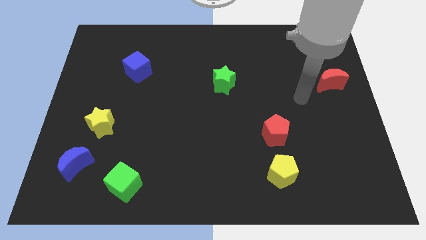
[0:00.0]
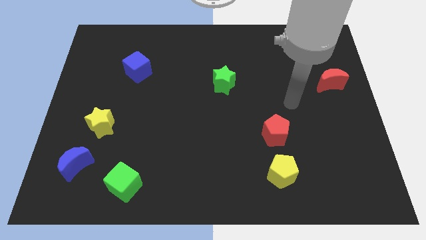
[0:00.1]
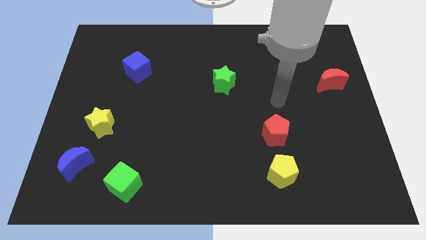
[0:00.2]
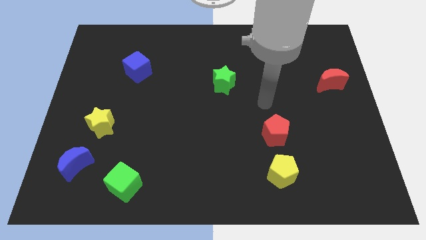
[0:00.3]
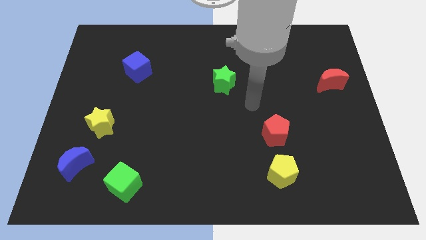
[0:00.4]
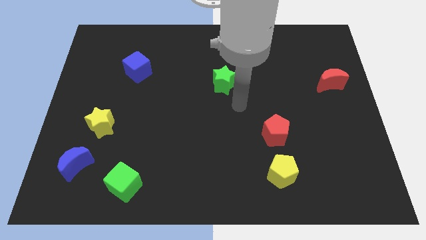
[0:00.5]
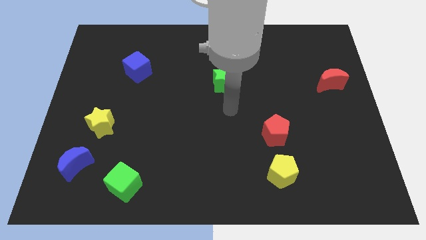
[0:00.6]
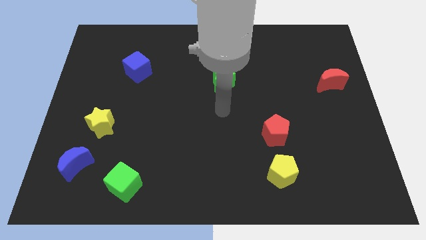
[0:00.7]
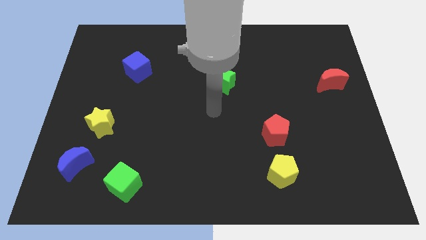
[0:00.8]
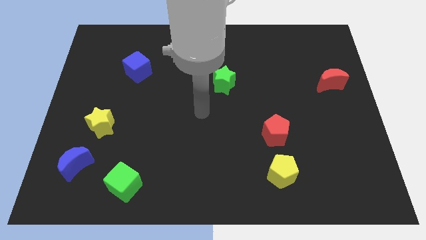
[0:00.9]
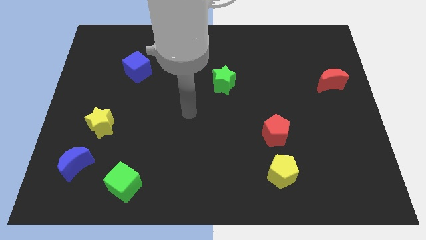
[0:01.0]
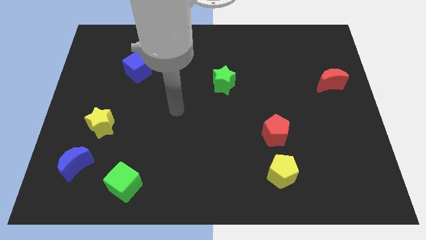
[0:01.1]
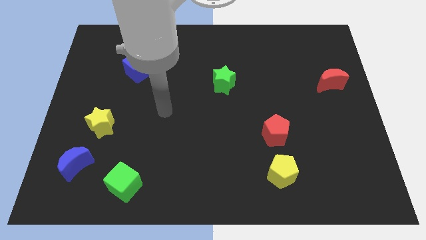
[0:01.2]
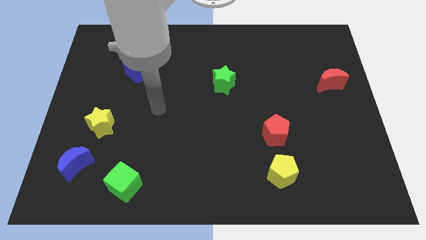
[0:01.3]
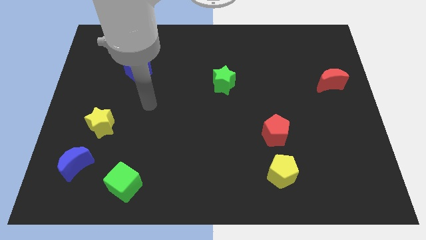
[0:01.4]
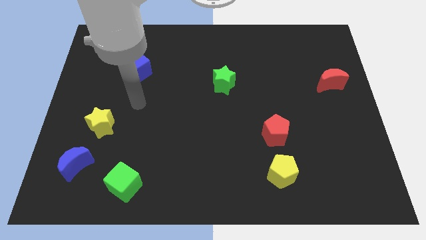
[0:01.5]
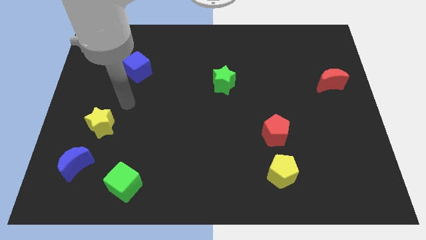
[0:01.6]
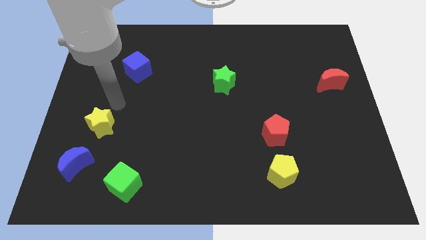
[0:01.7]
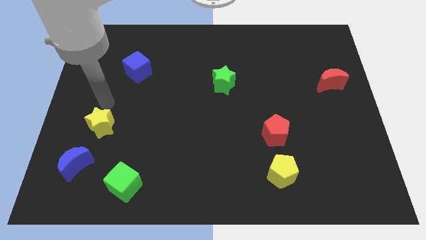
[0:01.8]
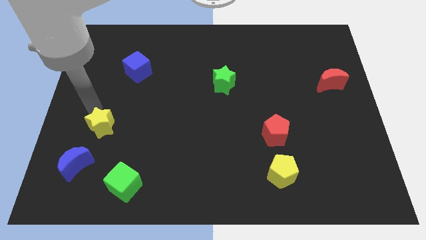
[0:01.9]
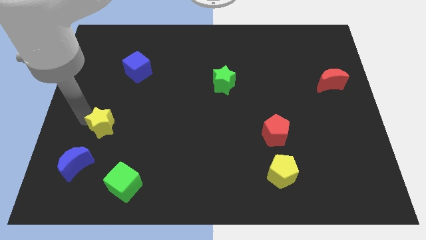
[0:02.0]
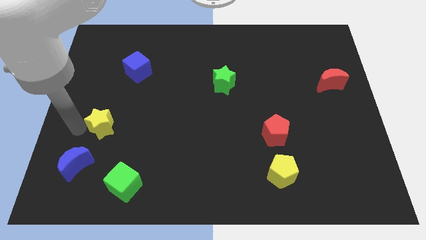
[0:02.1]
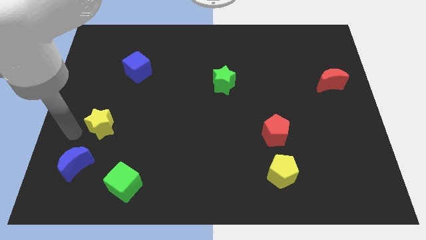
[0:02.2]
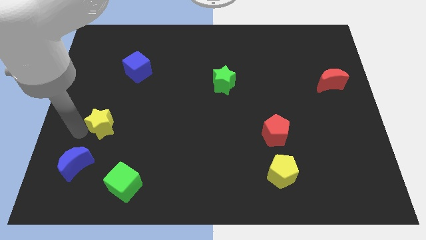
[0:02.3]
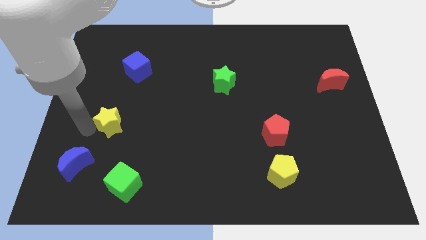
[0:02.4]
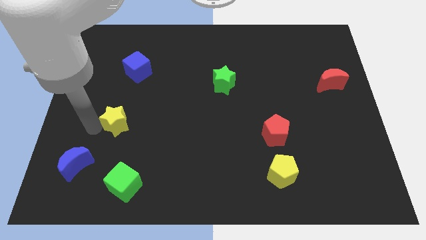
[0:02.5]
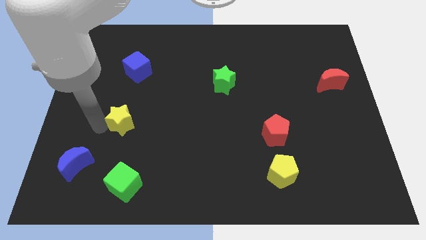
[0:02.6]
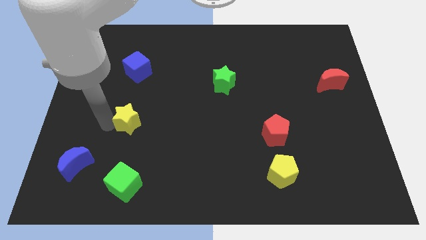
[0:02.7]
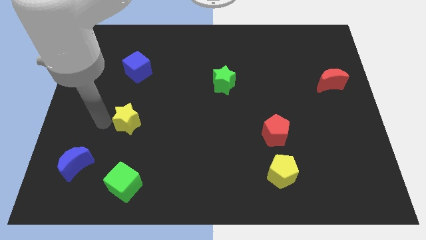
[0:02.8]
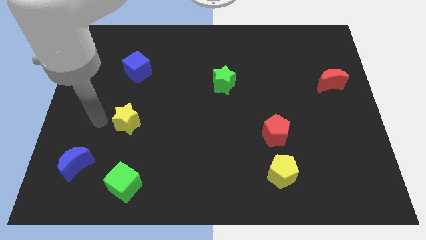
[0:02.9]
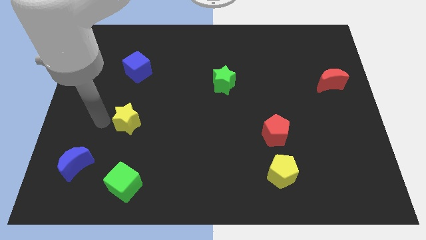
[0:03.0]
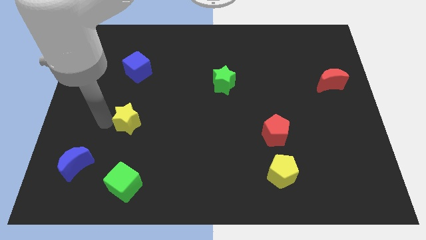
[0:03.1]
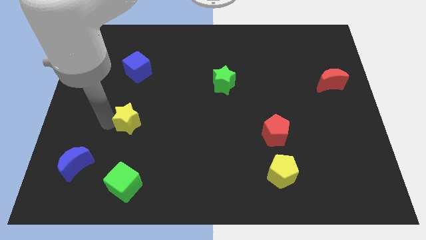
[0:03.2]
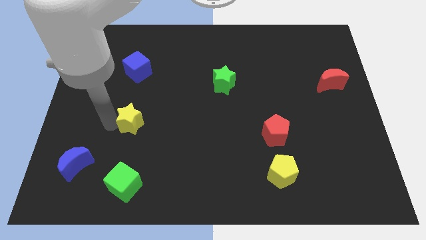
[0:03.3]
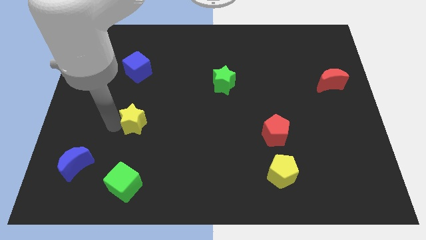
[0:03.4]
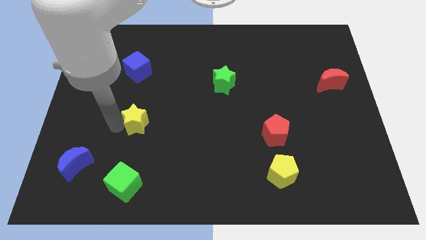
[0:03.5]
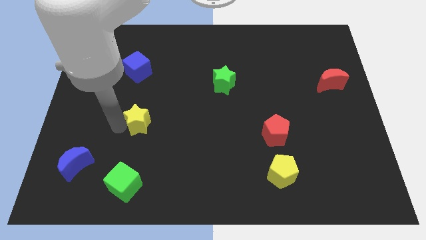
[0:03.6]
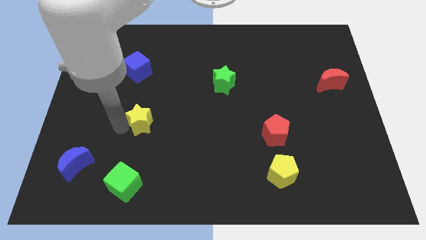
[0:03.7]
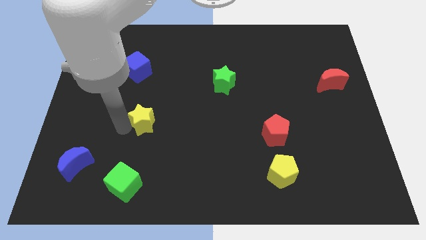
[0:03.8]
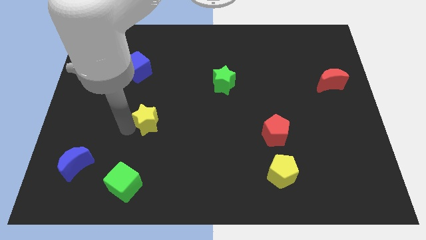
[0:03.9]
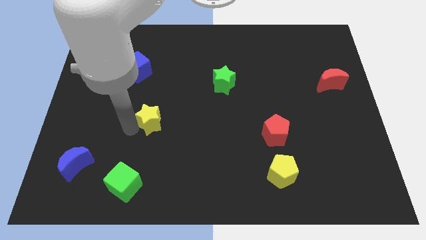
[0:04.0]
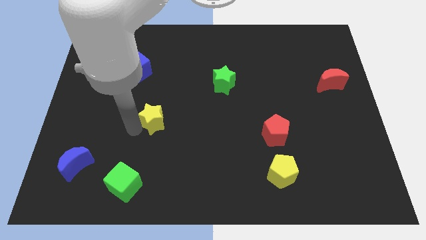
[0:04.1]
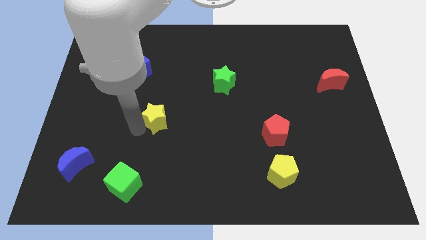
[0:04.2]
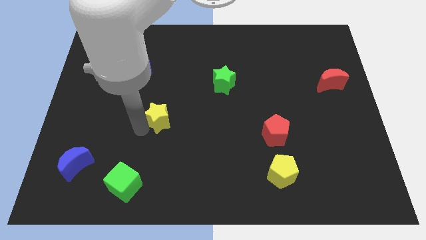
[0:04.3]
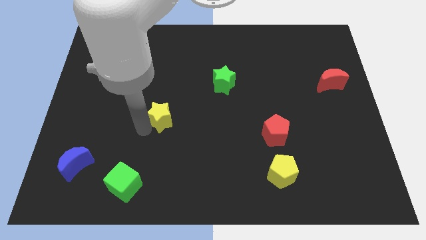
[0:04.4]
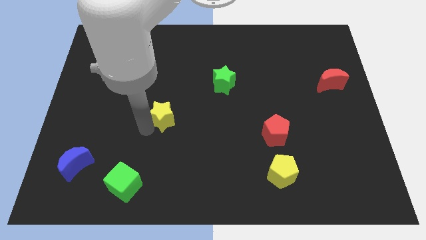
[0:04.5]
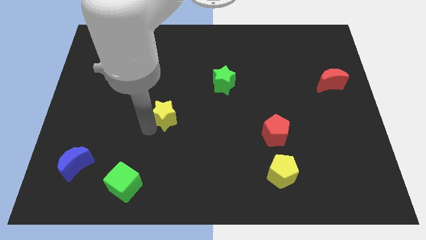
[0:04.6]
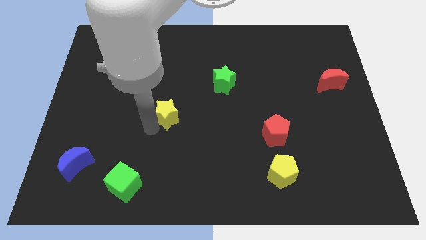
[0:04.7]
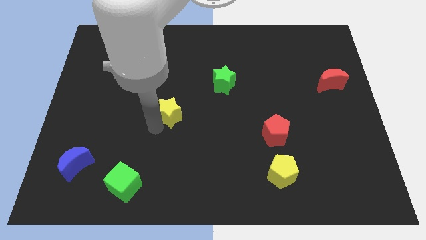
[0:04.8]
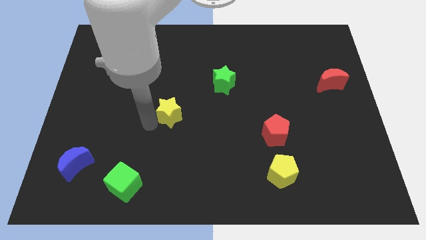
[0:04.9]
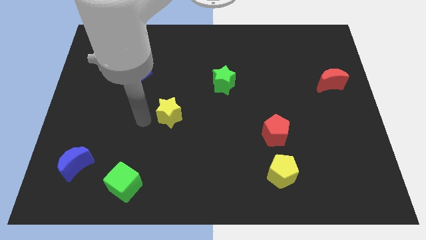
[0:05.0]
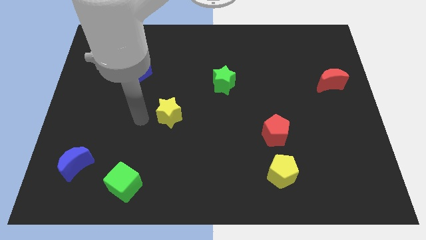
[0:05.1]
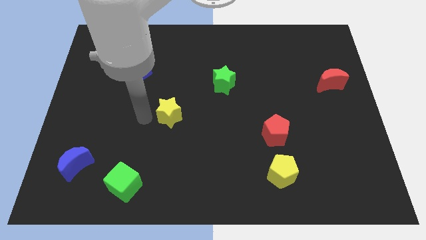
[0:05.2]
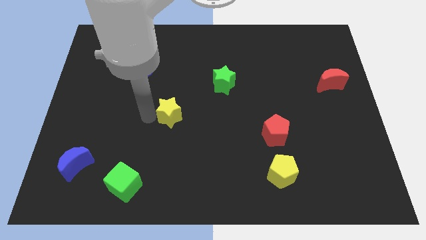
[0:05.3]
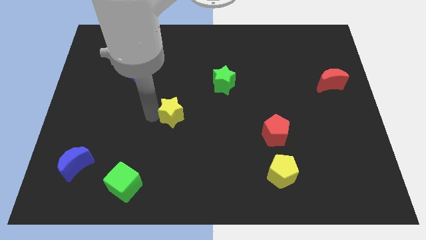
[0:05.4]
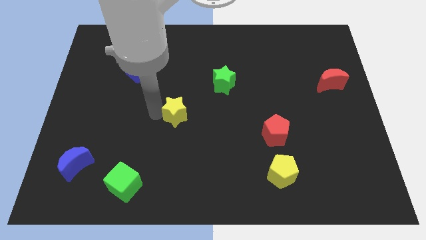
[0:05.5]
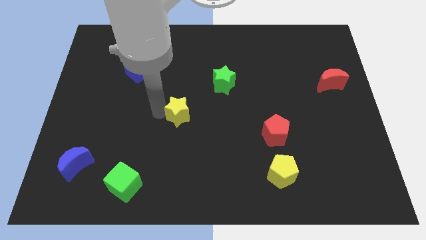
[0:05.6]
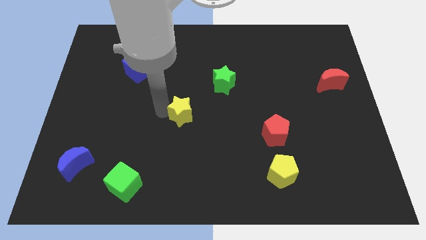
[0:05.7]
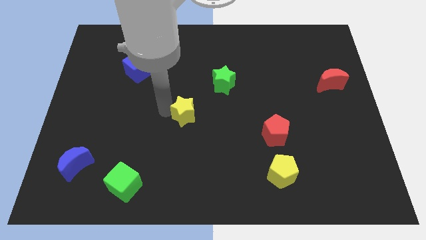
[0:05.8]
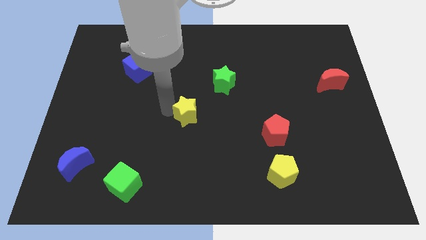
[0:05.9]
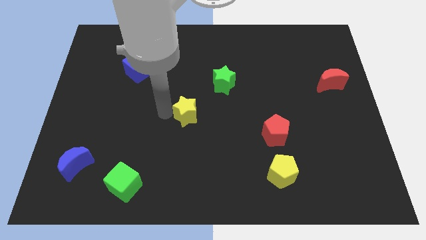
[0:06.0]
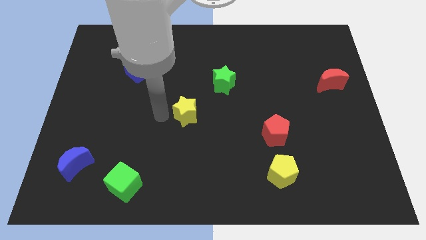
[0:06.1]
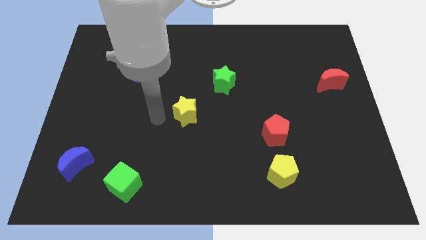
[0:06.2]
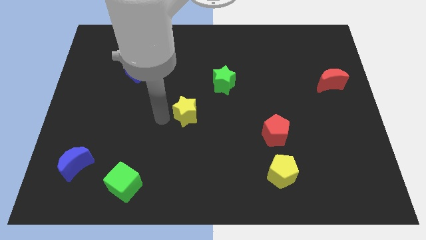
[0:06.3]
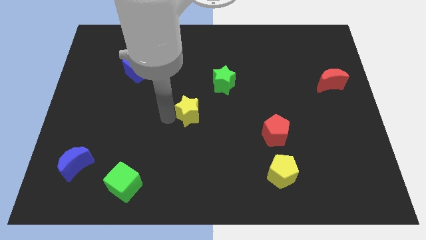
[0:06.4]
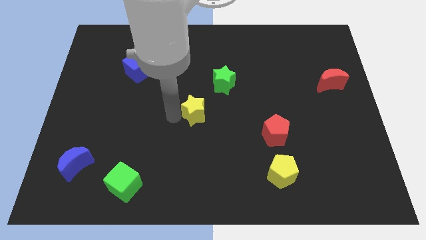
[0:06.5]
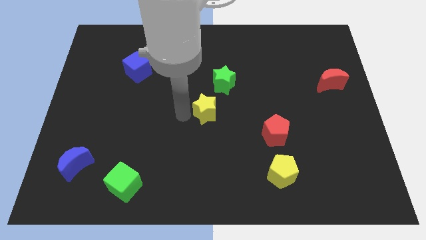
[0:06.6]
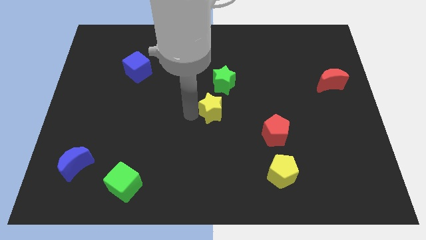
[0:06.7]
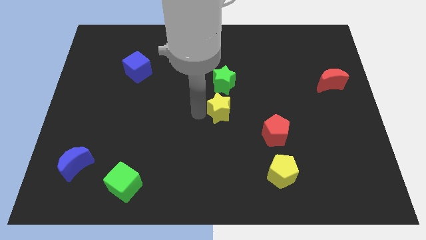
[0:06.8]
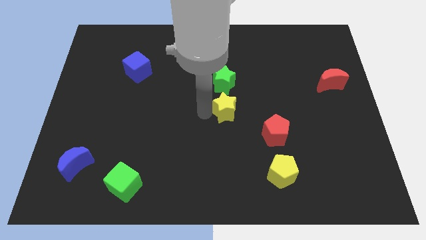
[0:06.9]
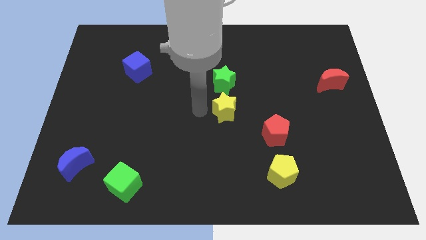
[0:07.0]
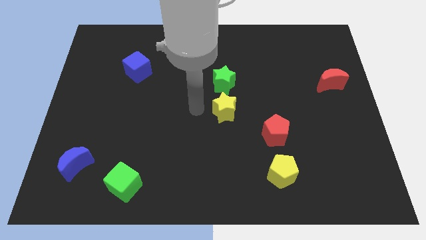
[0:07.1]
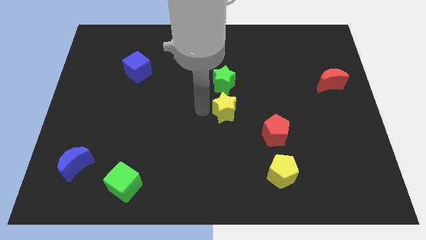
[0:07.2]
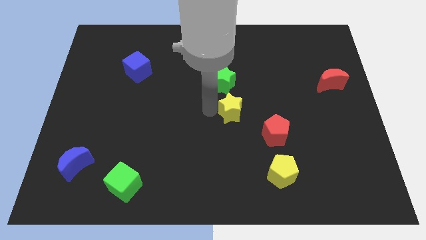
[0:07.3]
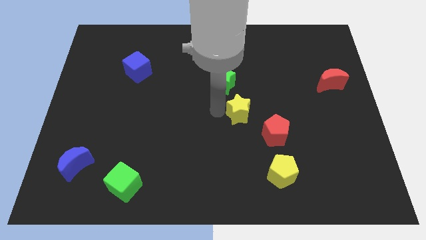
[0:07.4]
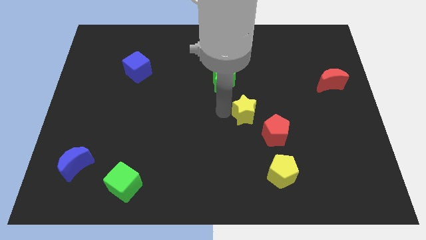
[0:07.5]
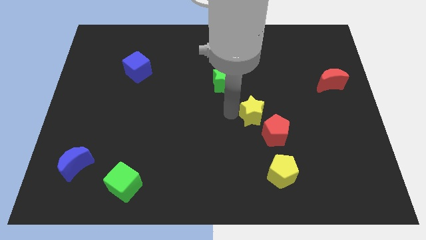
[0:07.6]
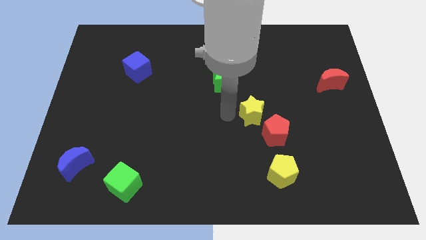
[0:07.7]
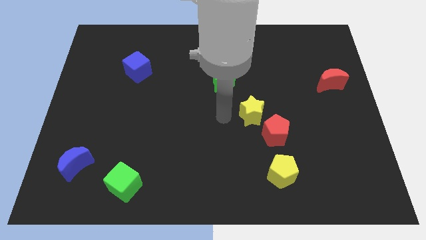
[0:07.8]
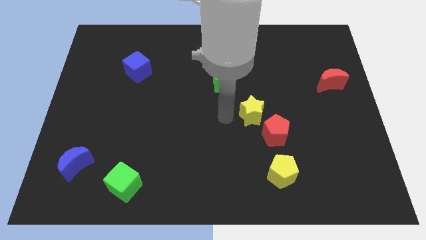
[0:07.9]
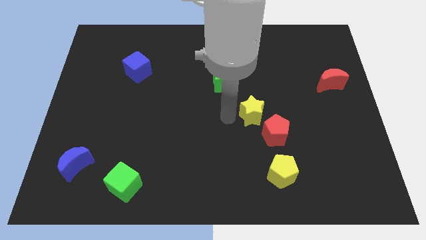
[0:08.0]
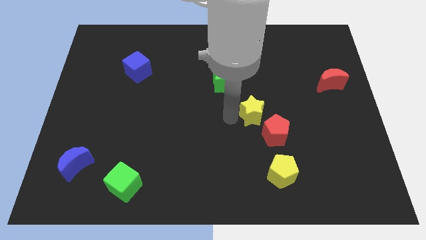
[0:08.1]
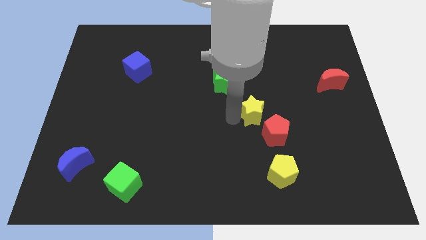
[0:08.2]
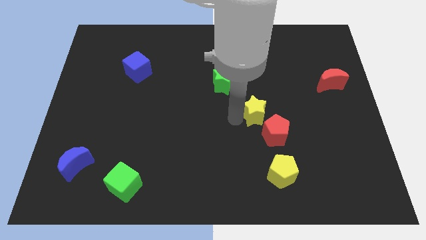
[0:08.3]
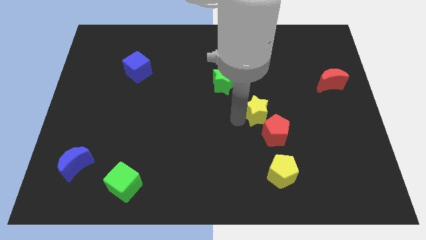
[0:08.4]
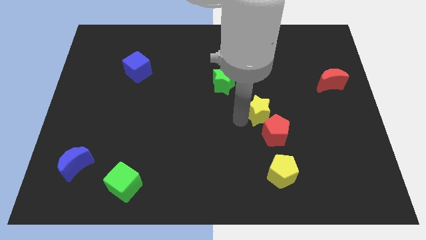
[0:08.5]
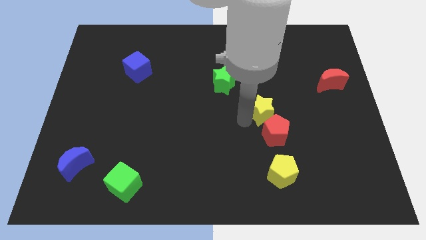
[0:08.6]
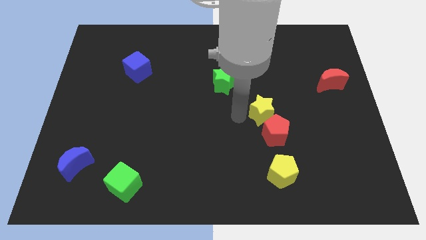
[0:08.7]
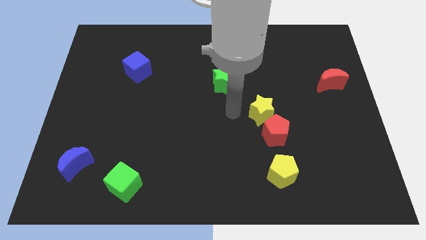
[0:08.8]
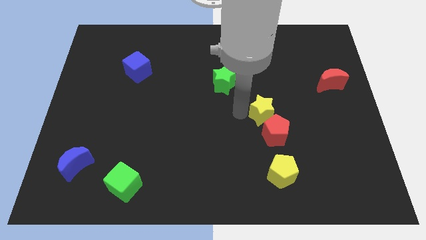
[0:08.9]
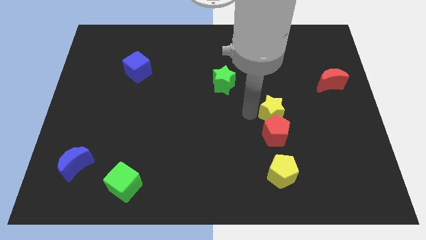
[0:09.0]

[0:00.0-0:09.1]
push the yellow star to the top right of the red pentagon
